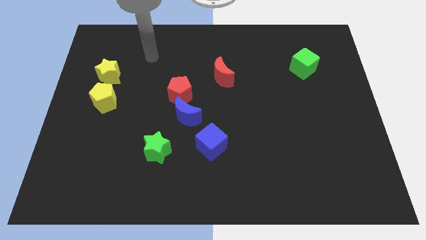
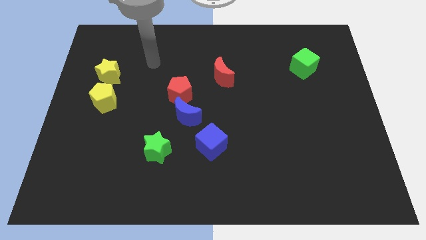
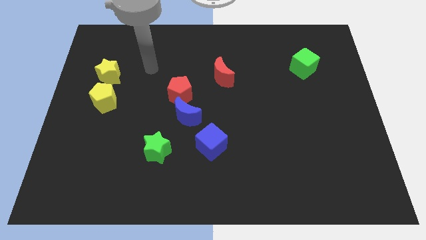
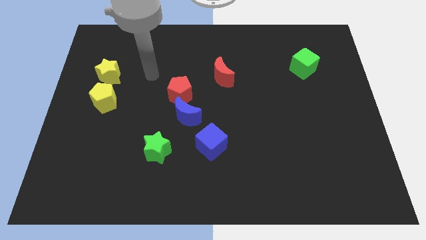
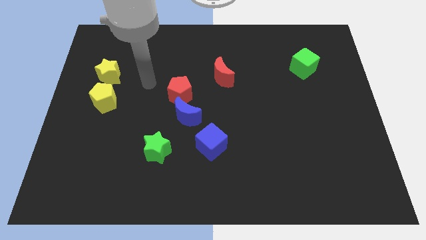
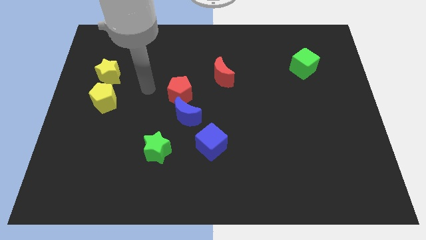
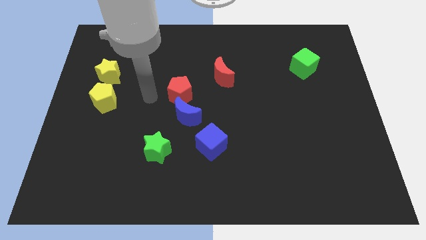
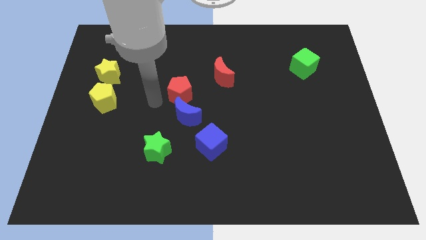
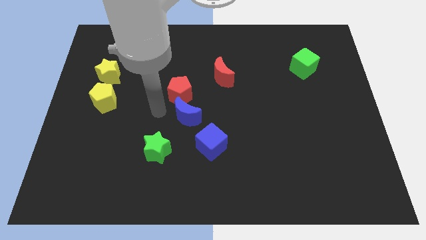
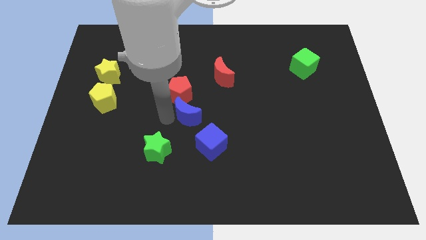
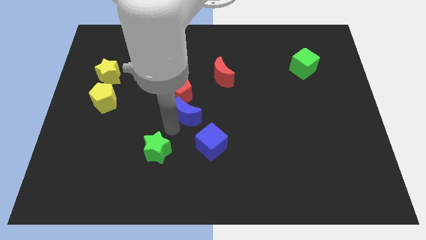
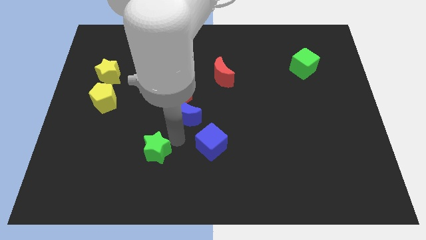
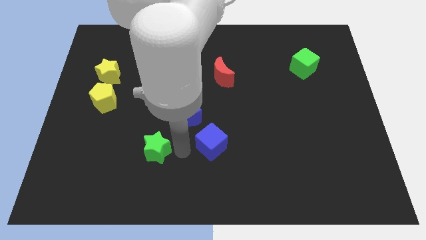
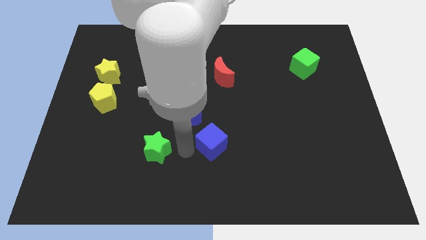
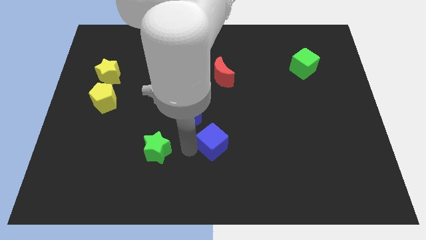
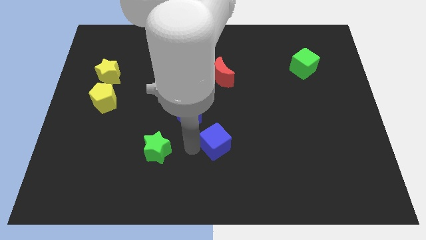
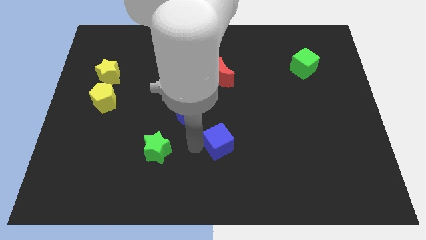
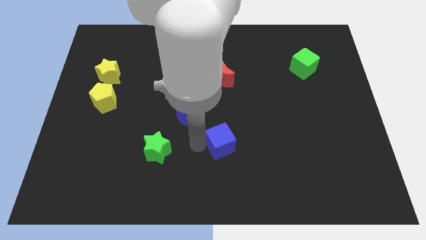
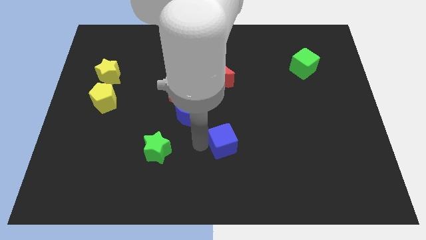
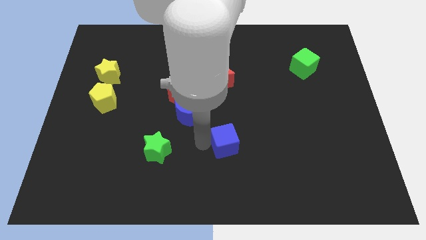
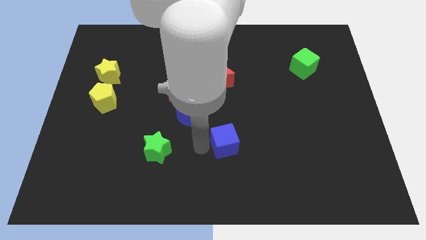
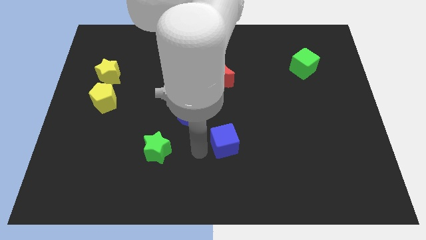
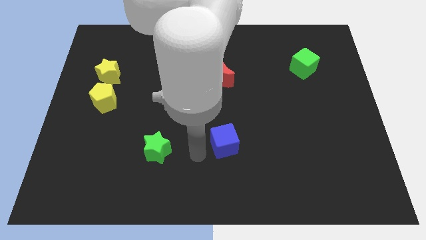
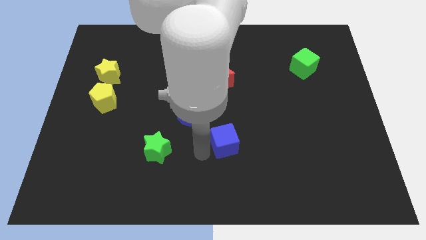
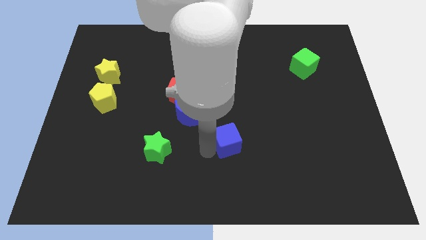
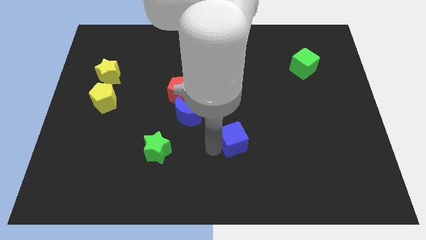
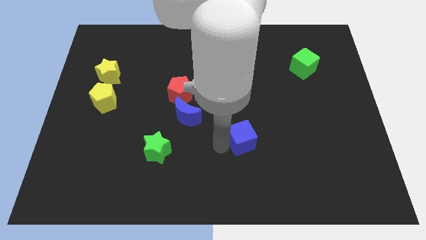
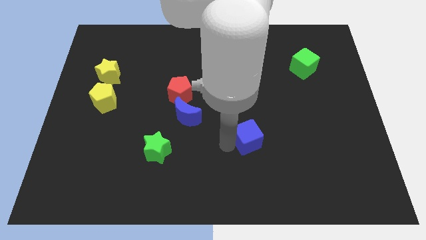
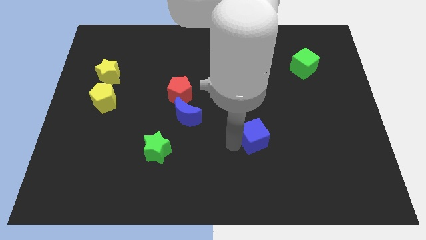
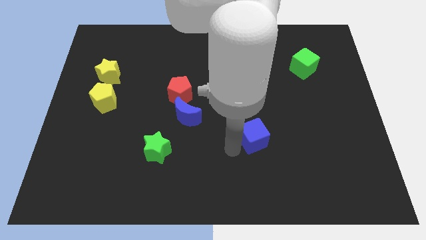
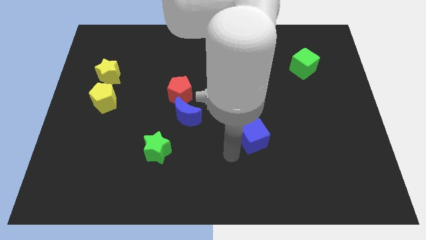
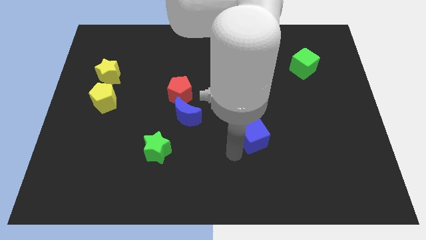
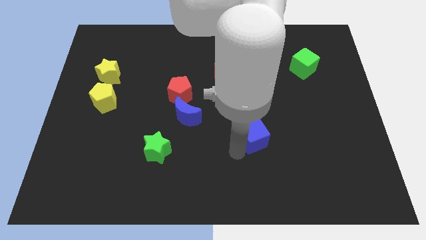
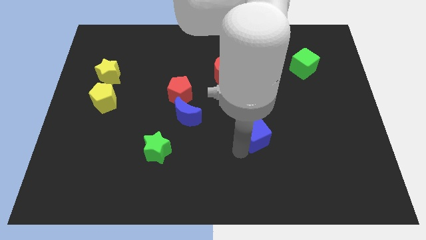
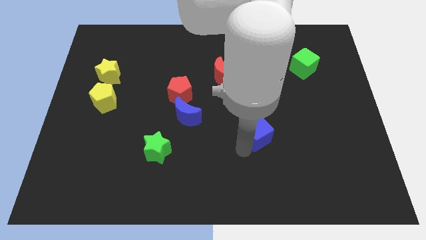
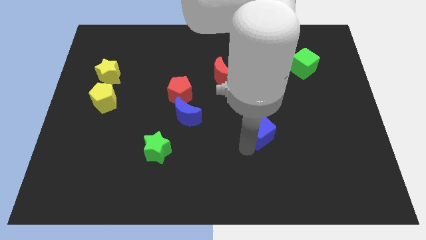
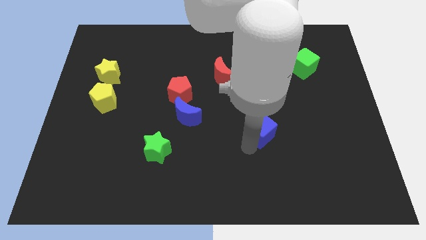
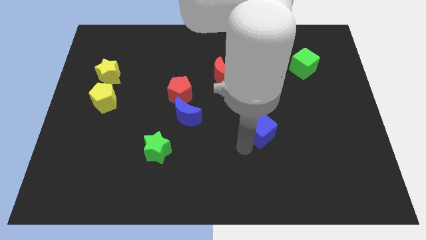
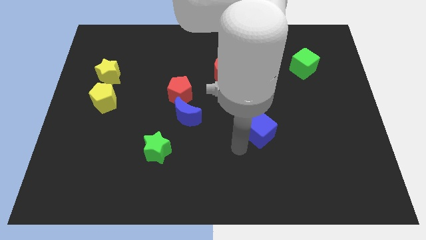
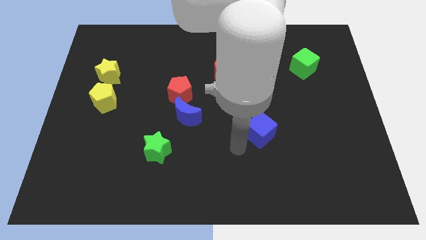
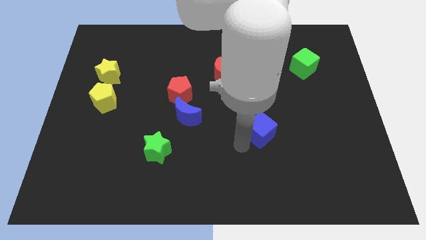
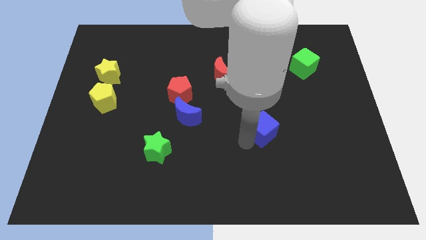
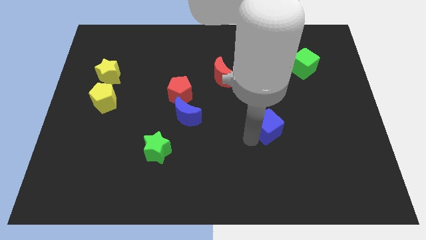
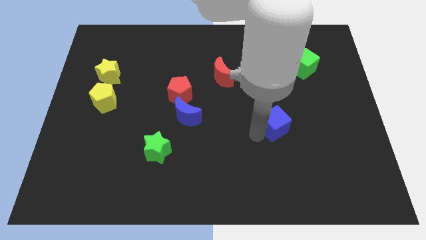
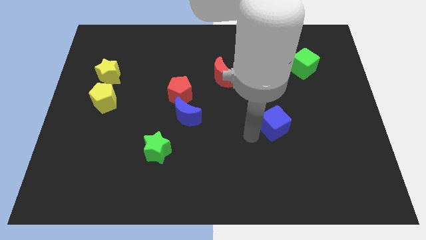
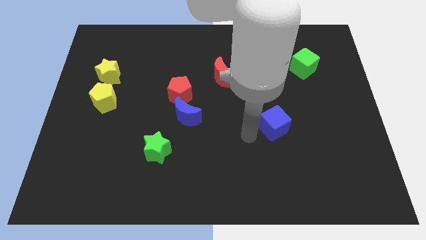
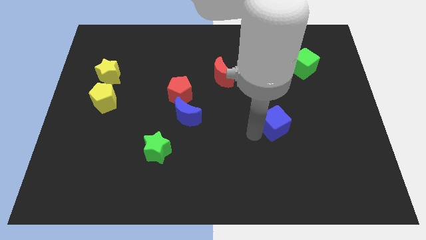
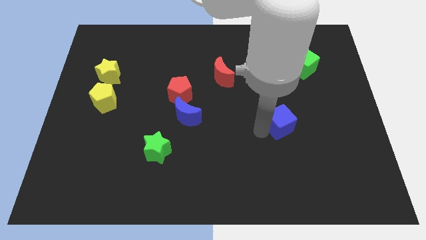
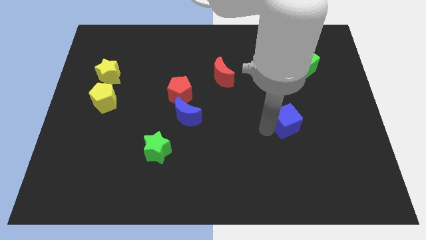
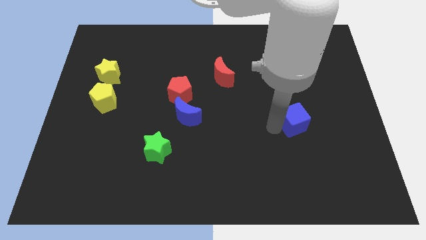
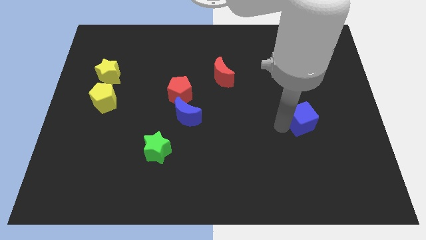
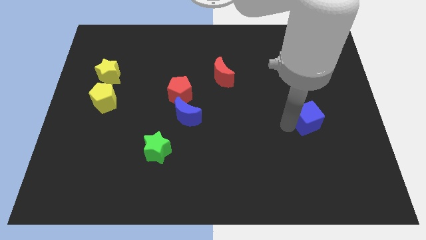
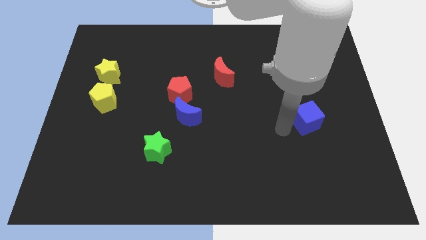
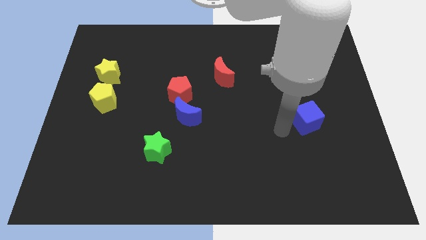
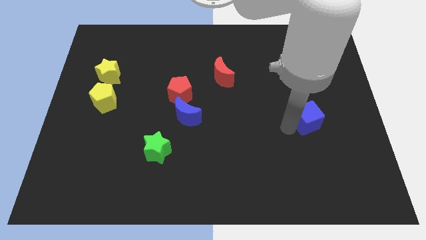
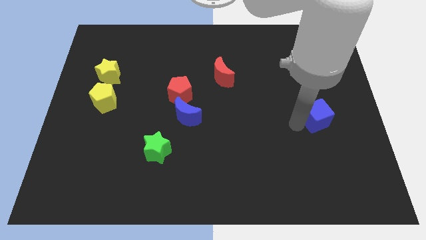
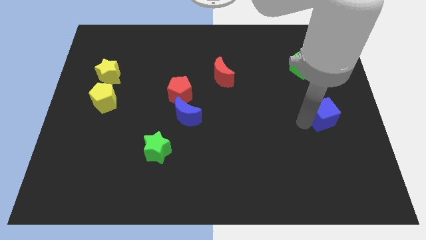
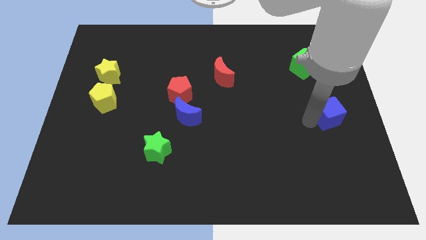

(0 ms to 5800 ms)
push the blue cube to the right side
